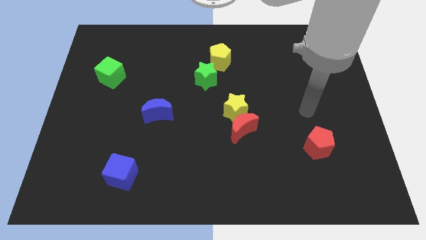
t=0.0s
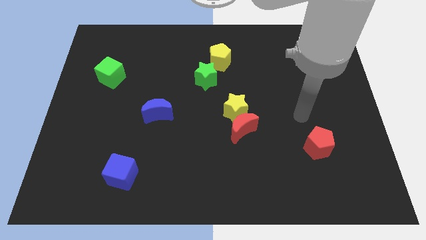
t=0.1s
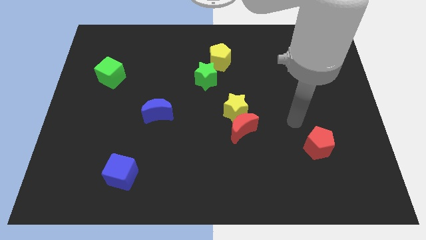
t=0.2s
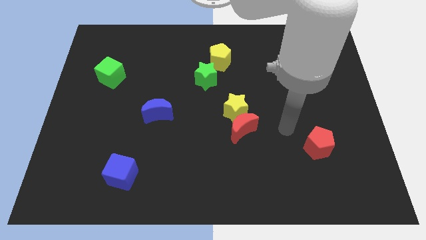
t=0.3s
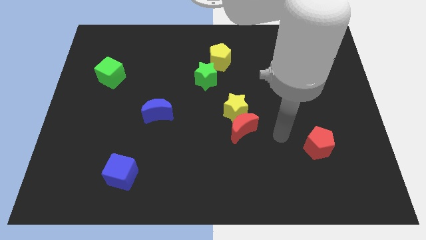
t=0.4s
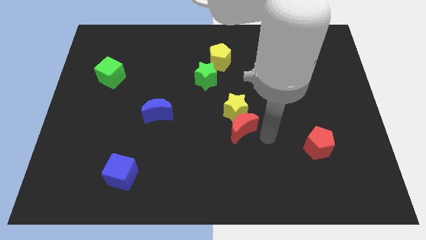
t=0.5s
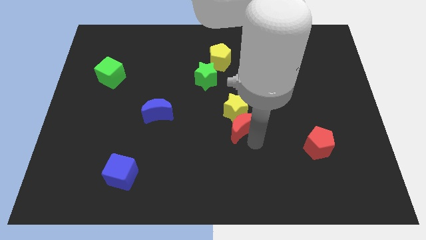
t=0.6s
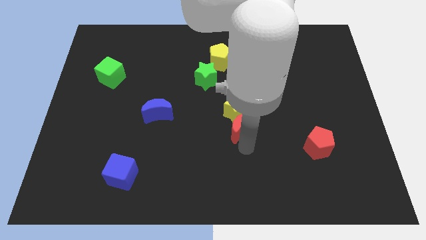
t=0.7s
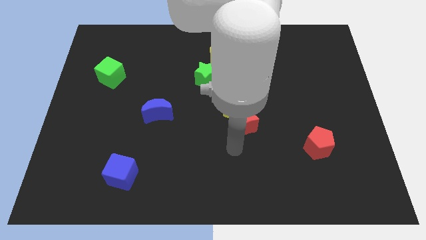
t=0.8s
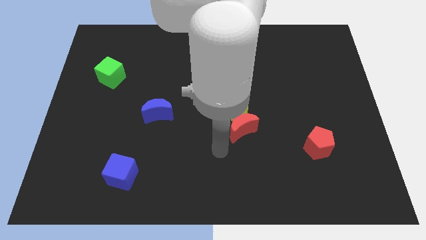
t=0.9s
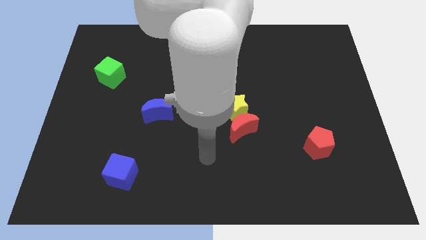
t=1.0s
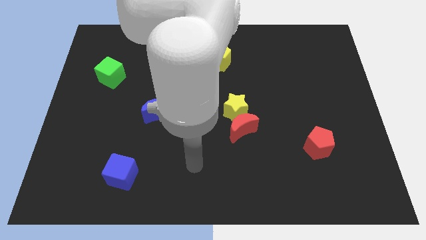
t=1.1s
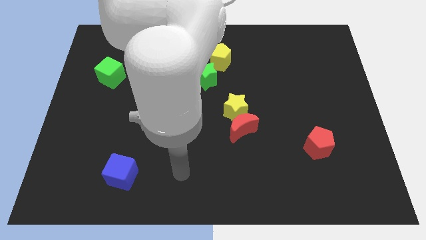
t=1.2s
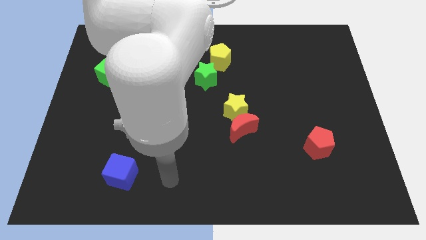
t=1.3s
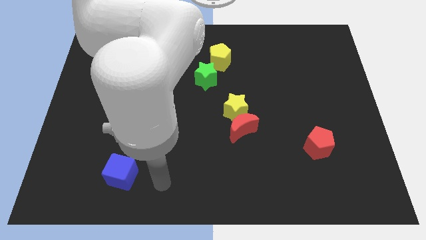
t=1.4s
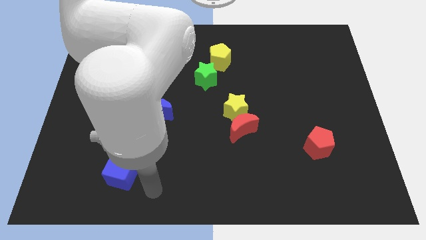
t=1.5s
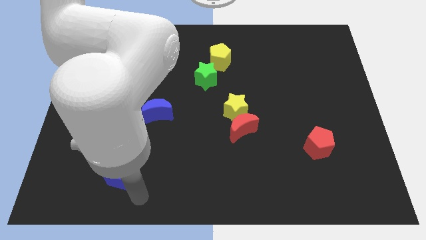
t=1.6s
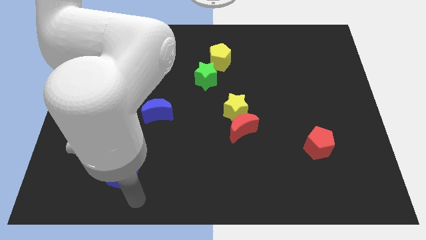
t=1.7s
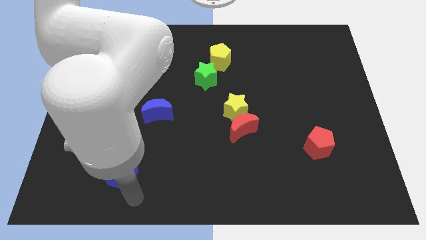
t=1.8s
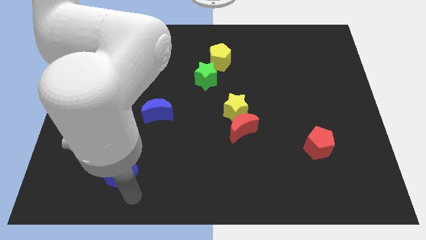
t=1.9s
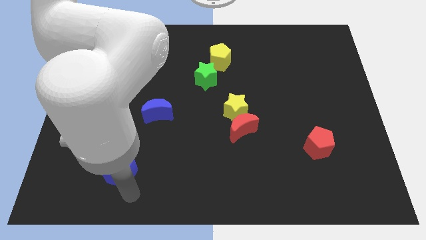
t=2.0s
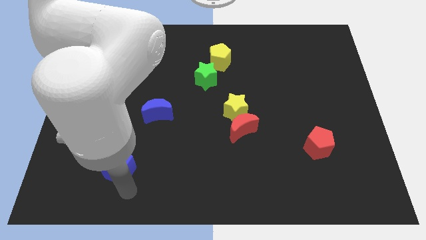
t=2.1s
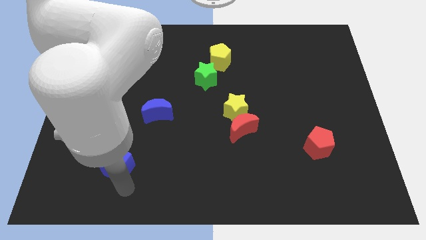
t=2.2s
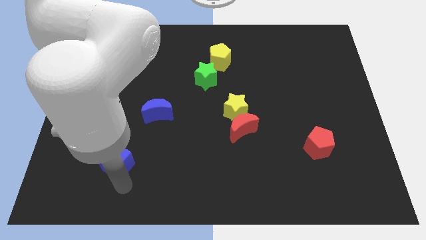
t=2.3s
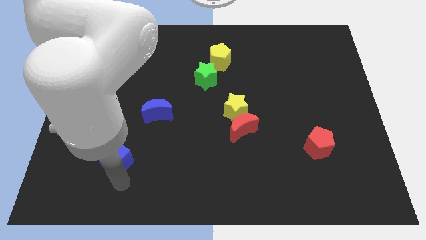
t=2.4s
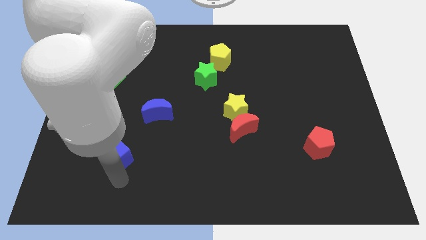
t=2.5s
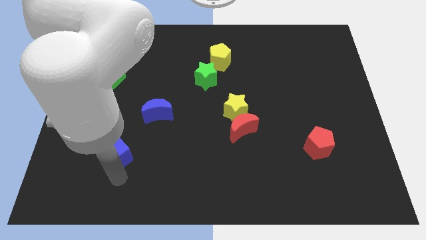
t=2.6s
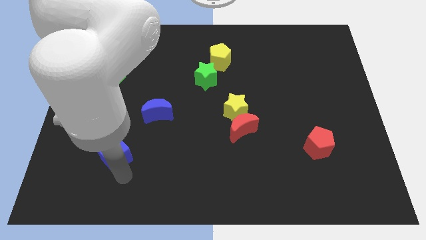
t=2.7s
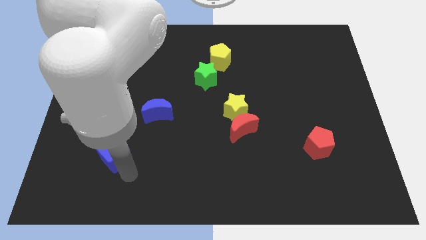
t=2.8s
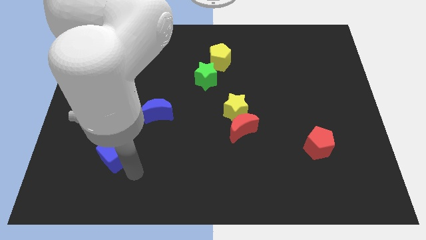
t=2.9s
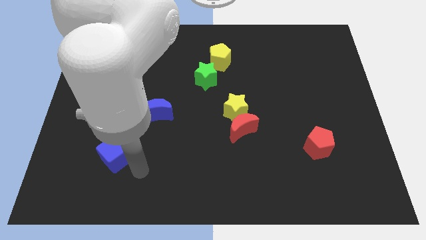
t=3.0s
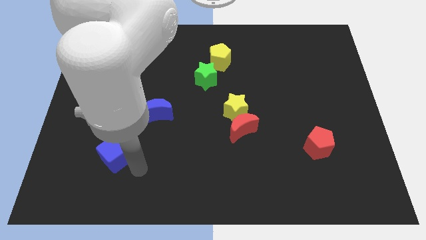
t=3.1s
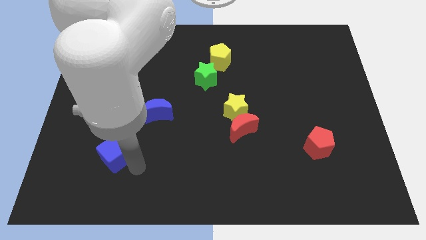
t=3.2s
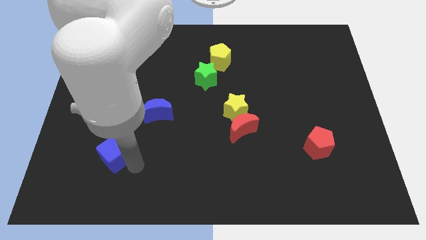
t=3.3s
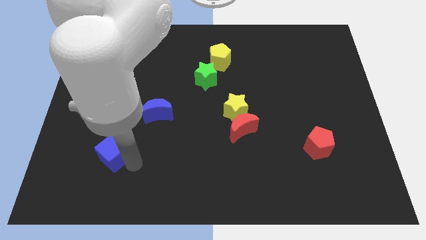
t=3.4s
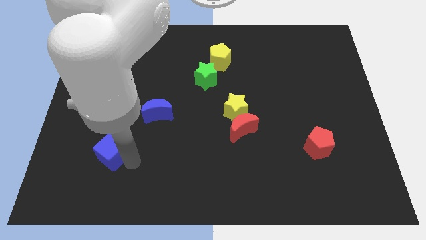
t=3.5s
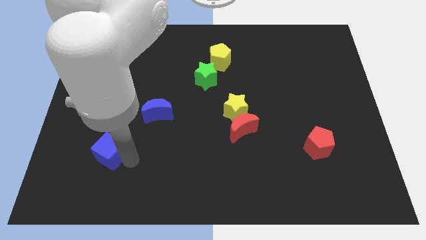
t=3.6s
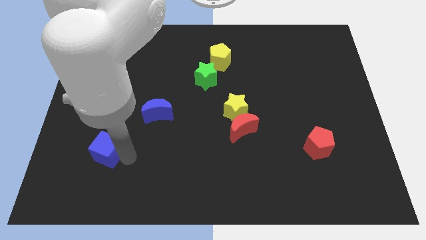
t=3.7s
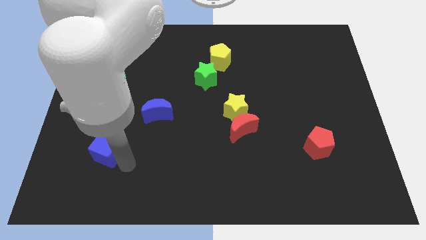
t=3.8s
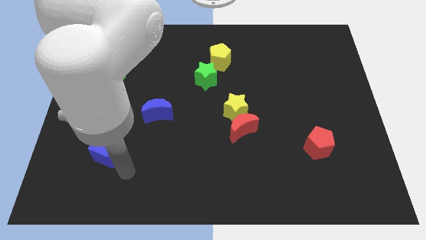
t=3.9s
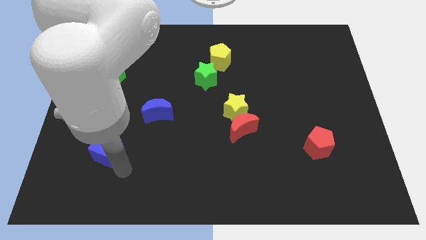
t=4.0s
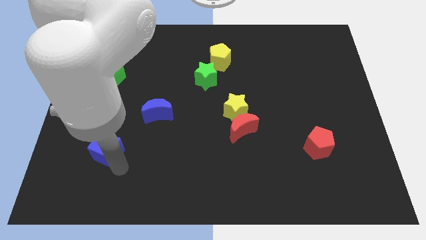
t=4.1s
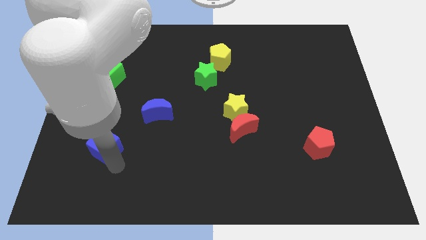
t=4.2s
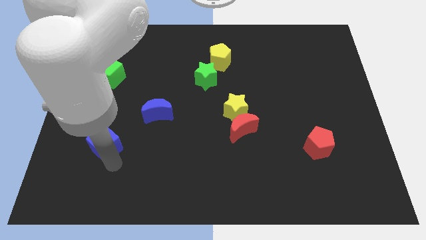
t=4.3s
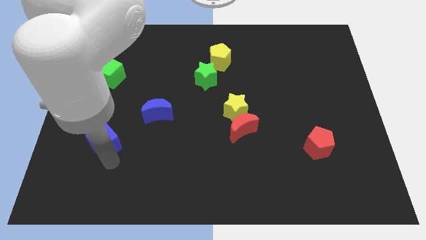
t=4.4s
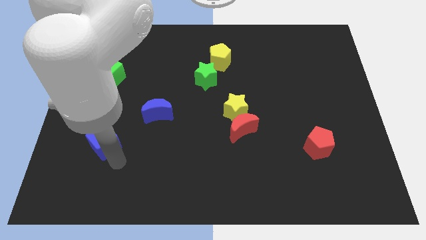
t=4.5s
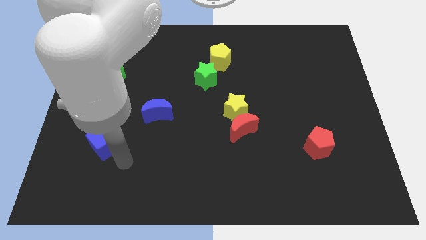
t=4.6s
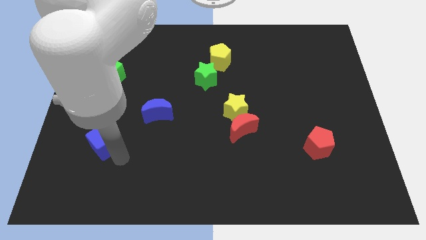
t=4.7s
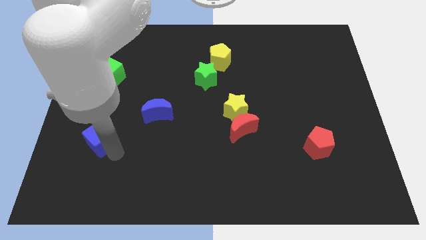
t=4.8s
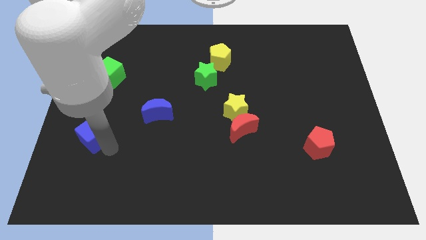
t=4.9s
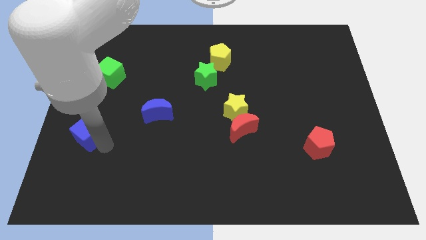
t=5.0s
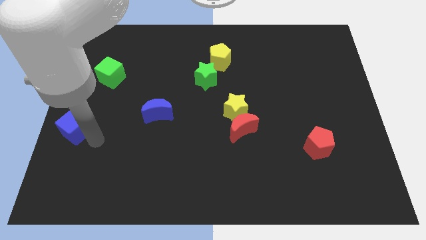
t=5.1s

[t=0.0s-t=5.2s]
slide the blue cube to the center left

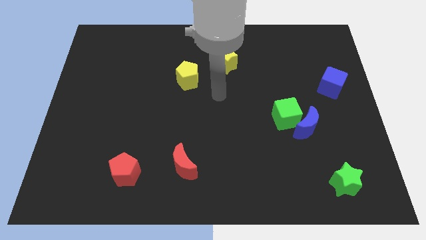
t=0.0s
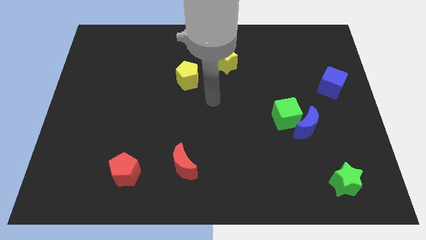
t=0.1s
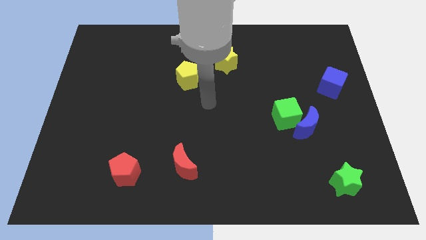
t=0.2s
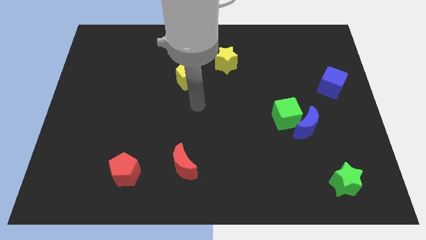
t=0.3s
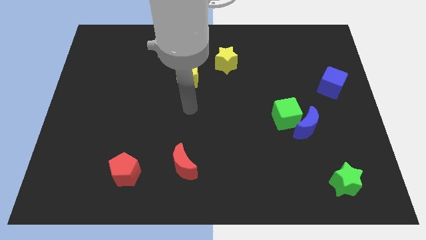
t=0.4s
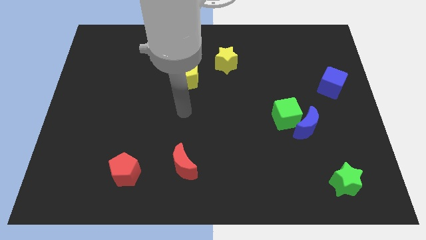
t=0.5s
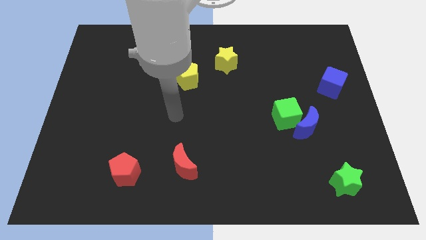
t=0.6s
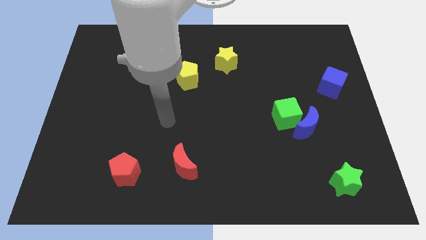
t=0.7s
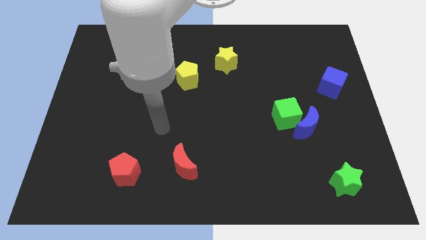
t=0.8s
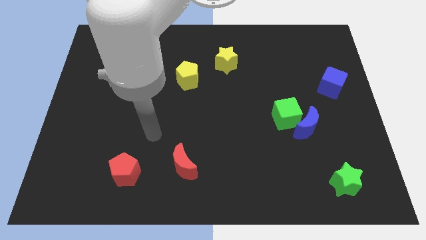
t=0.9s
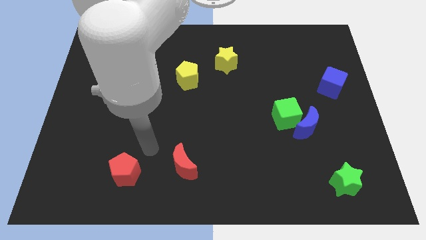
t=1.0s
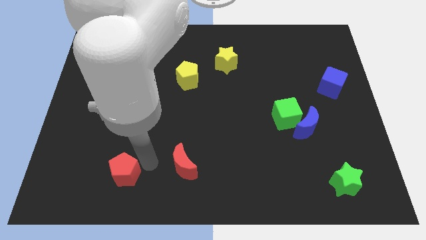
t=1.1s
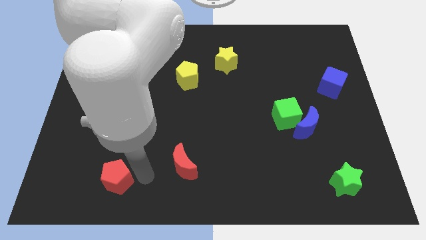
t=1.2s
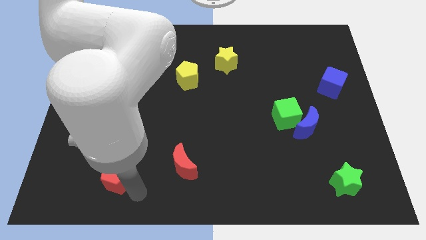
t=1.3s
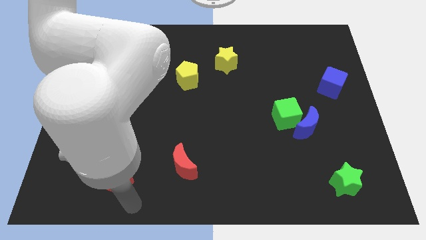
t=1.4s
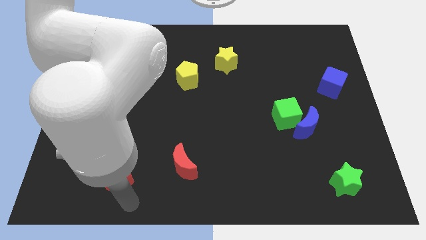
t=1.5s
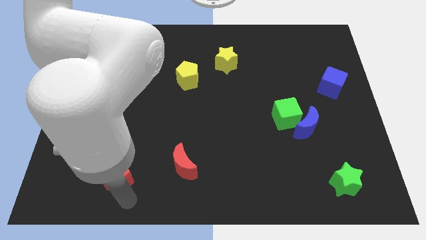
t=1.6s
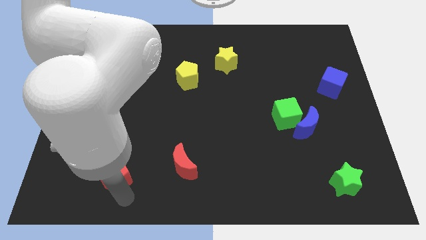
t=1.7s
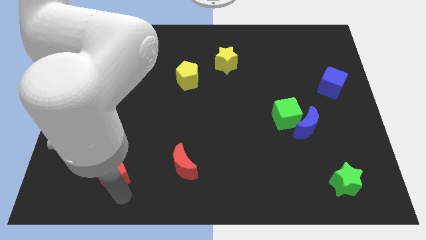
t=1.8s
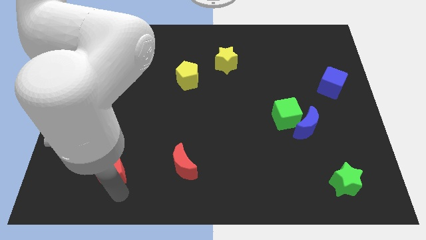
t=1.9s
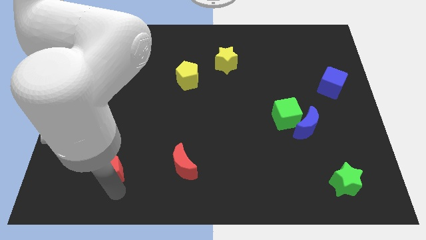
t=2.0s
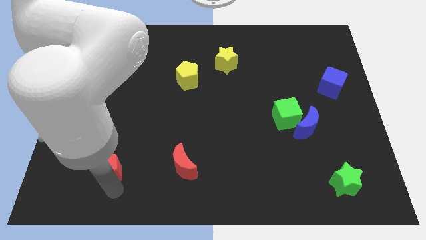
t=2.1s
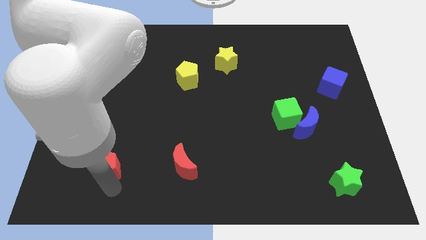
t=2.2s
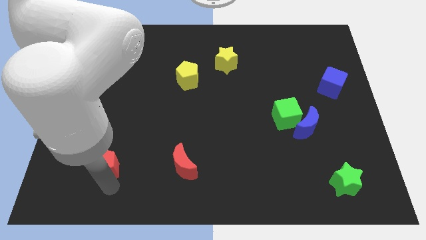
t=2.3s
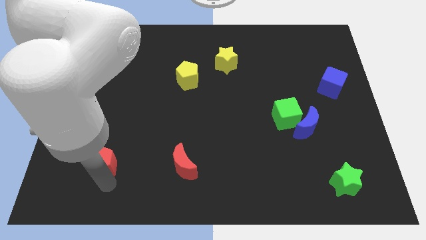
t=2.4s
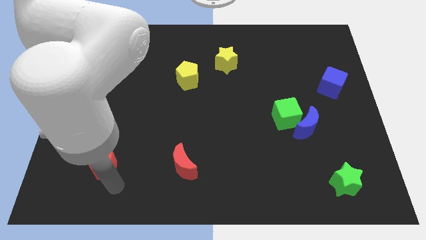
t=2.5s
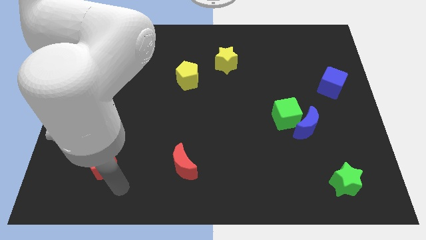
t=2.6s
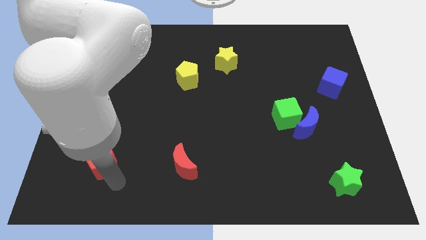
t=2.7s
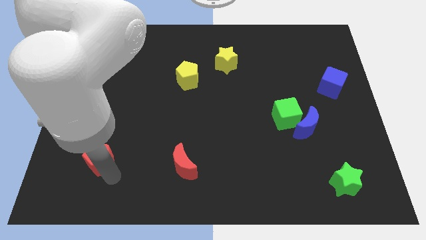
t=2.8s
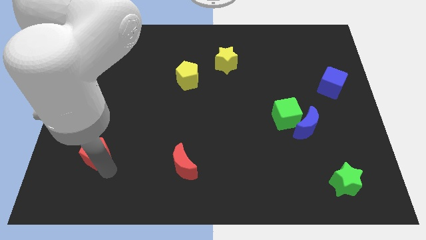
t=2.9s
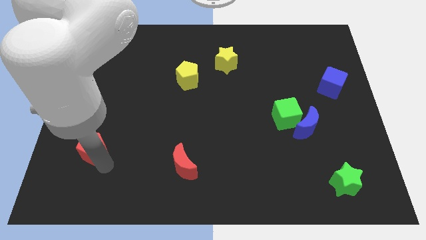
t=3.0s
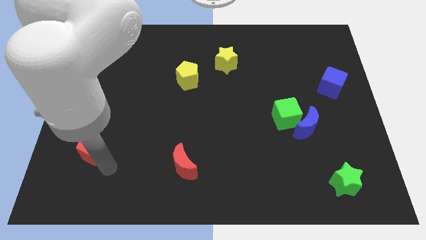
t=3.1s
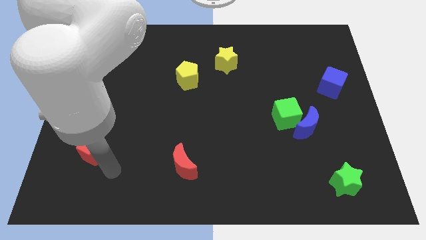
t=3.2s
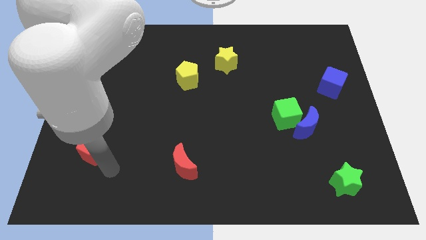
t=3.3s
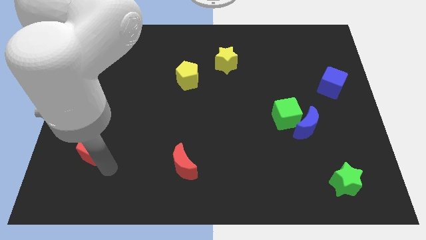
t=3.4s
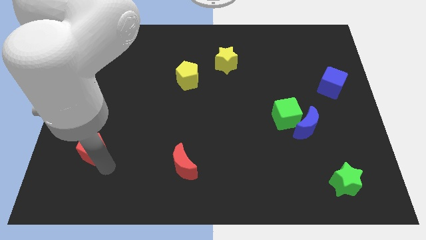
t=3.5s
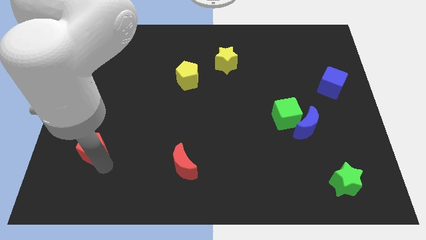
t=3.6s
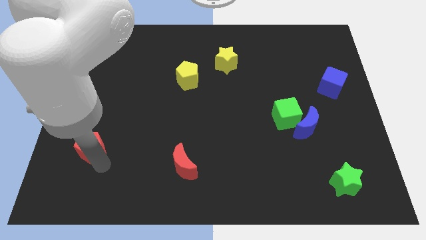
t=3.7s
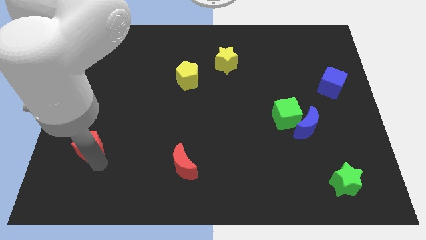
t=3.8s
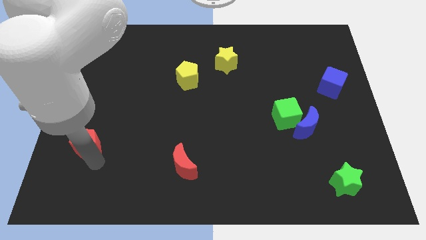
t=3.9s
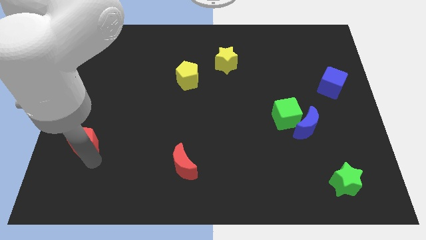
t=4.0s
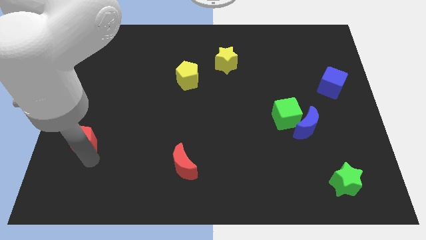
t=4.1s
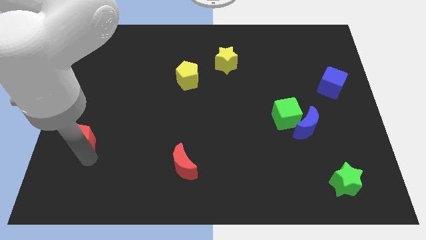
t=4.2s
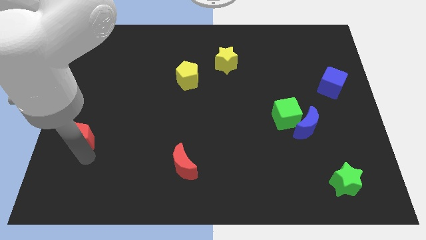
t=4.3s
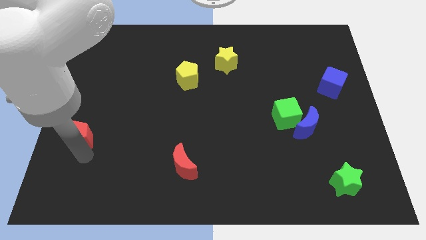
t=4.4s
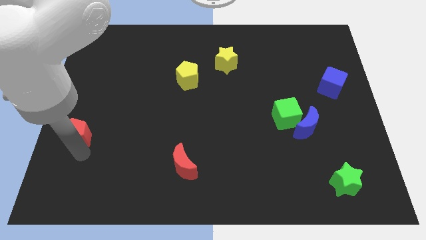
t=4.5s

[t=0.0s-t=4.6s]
put the red pentagon to the left side
